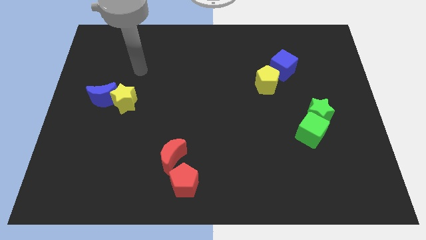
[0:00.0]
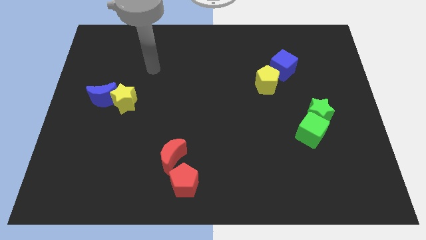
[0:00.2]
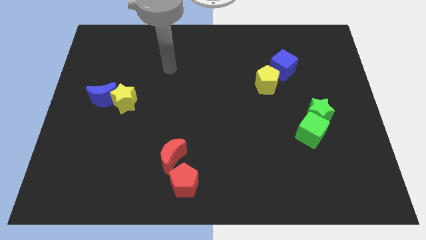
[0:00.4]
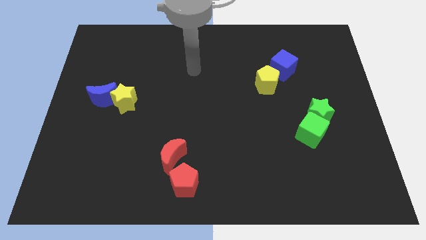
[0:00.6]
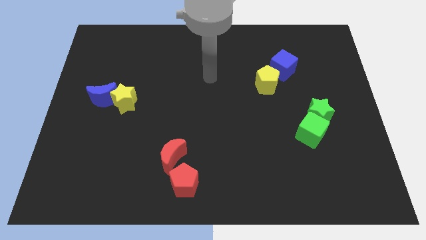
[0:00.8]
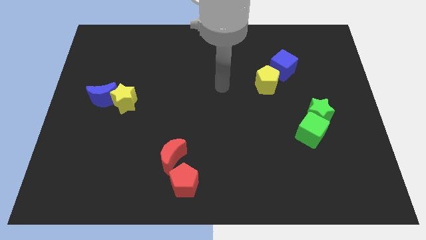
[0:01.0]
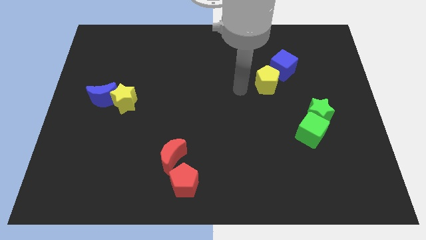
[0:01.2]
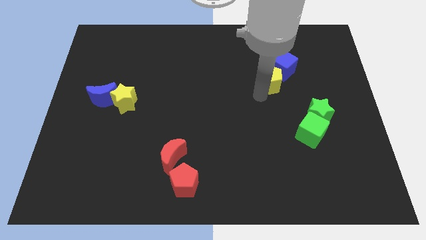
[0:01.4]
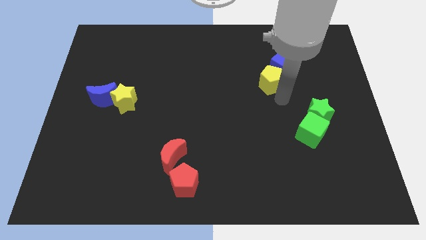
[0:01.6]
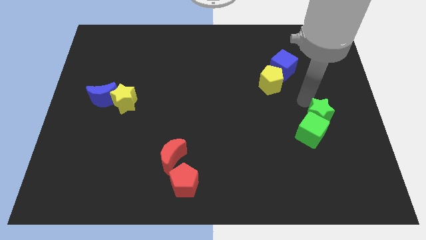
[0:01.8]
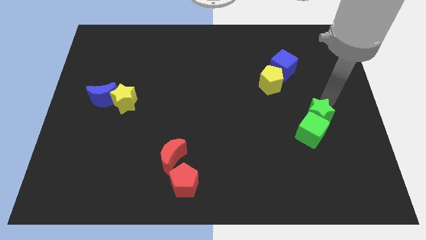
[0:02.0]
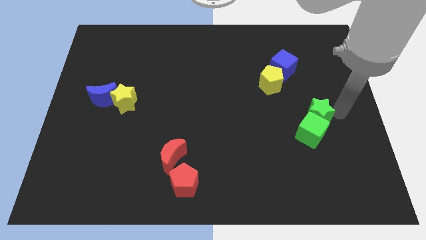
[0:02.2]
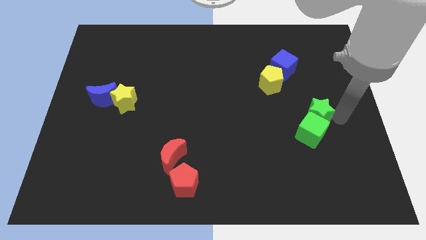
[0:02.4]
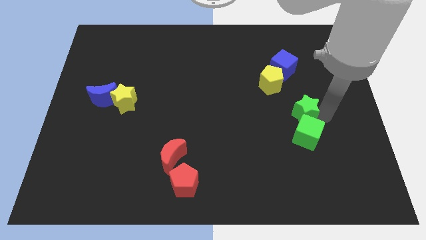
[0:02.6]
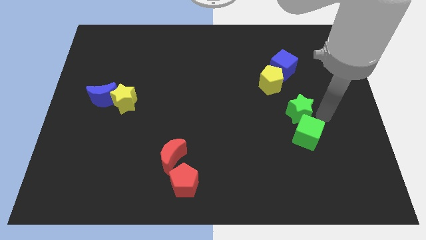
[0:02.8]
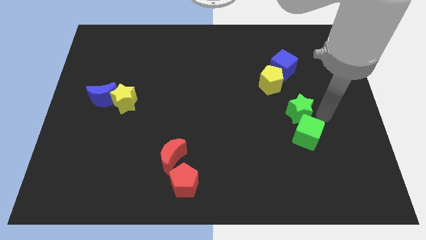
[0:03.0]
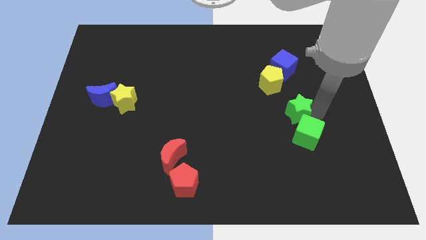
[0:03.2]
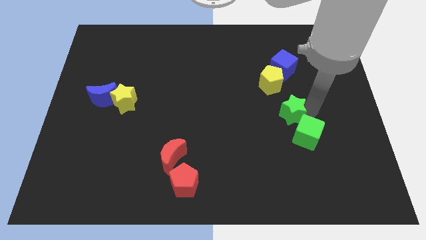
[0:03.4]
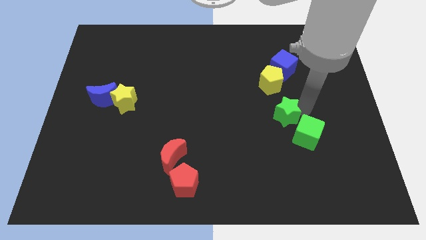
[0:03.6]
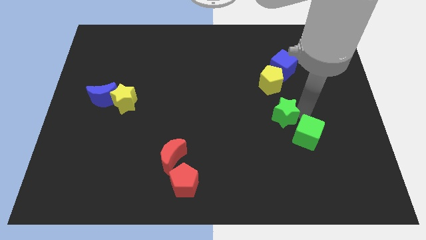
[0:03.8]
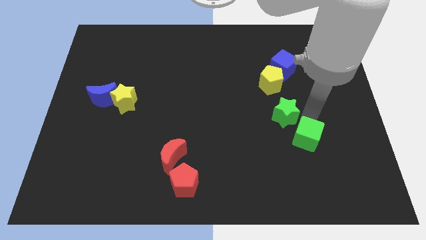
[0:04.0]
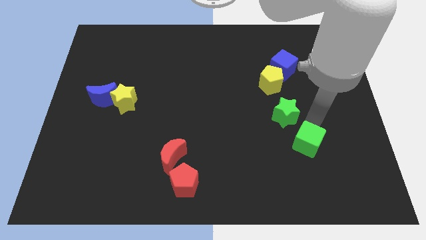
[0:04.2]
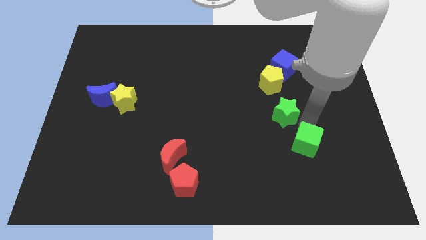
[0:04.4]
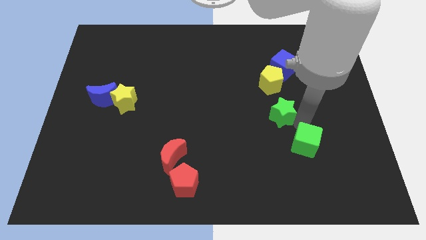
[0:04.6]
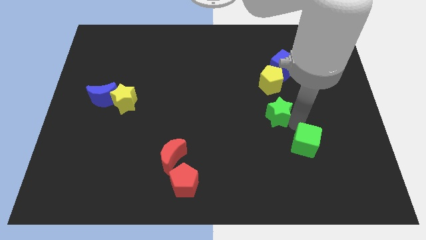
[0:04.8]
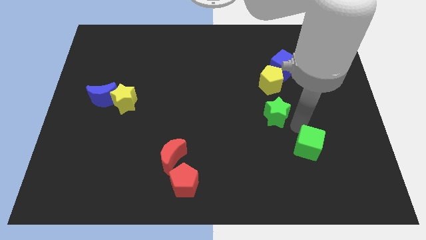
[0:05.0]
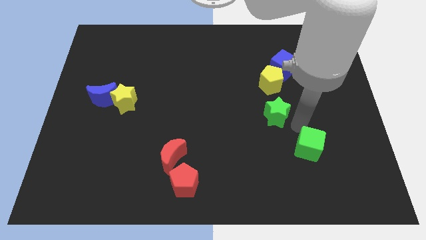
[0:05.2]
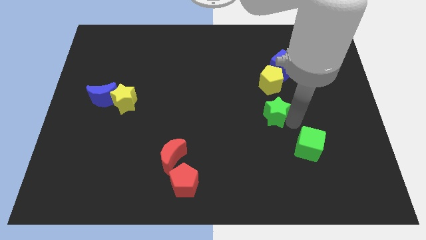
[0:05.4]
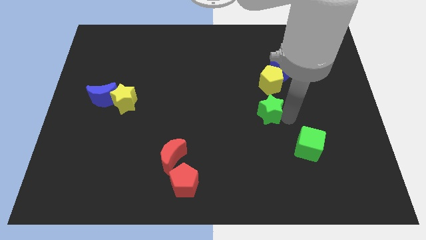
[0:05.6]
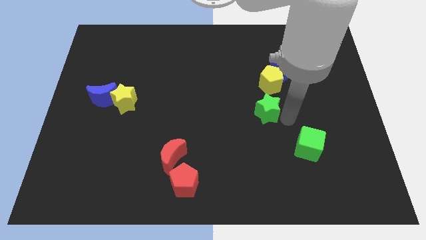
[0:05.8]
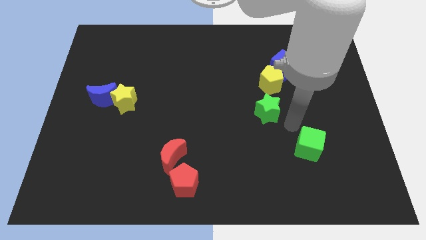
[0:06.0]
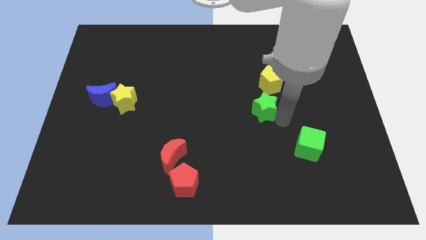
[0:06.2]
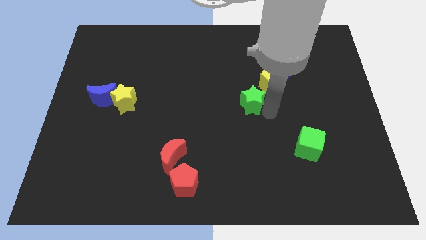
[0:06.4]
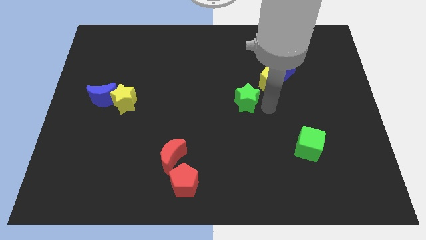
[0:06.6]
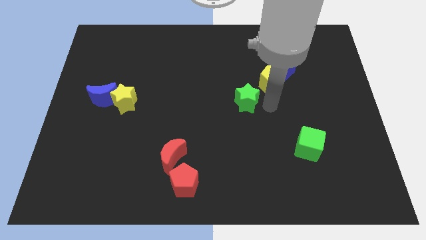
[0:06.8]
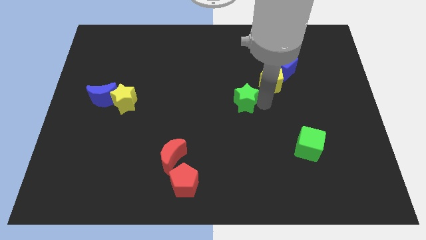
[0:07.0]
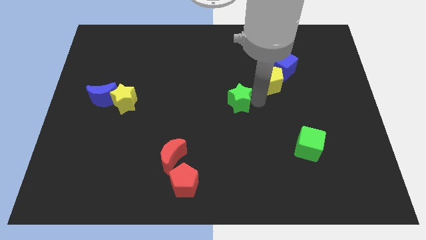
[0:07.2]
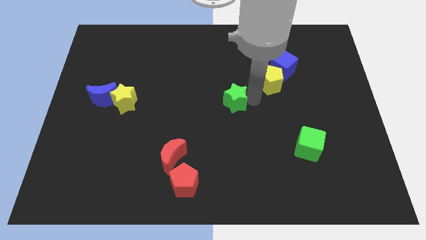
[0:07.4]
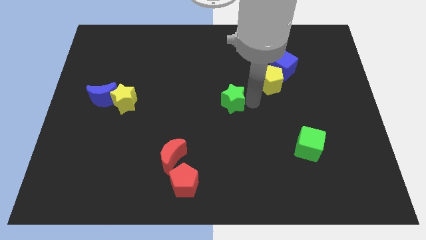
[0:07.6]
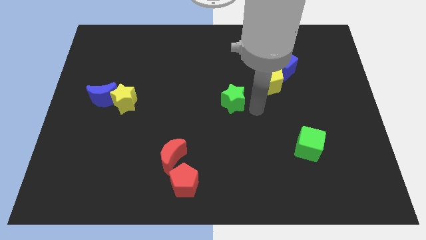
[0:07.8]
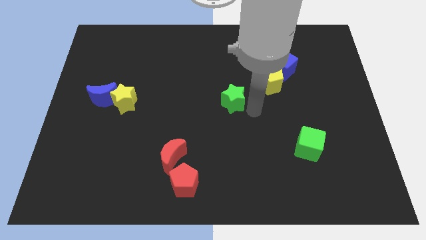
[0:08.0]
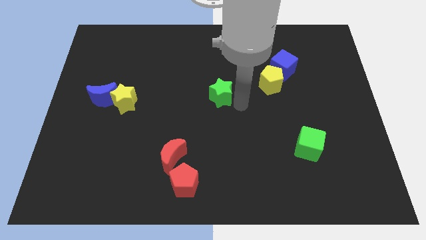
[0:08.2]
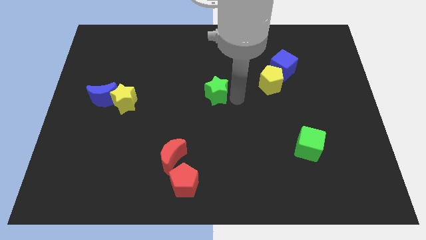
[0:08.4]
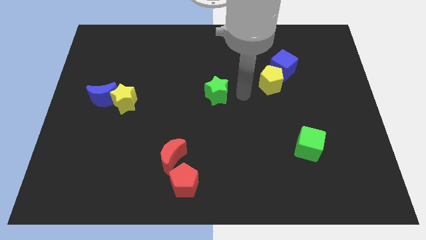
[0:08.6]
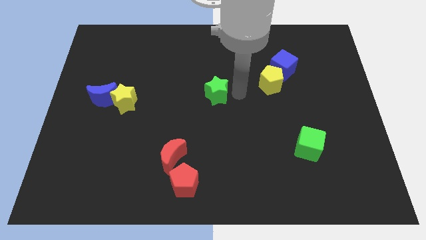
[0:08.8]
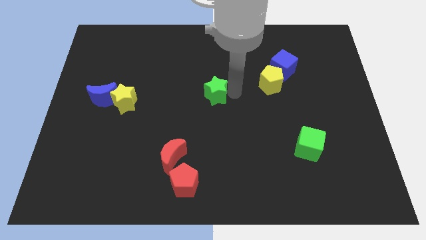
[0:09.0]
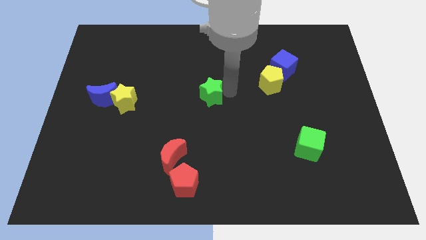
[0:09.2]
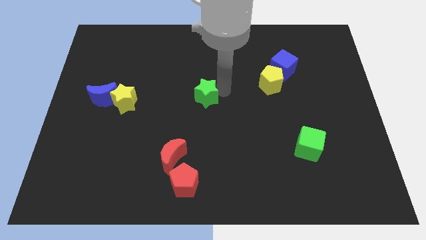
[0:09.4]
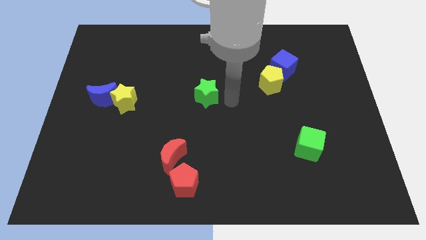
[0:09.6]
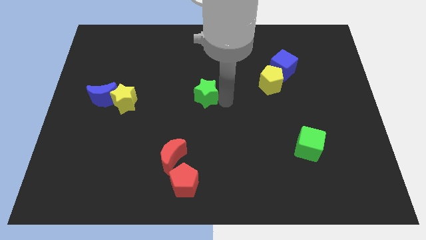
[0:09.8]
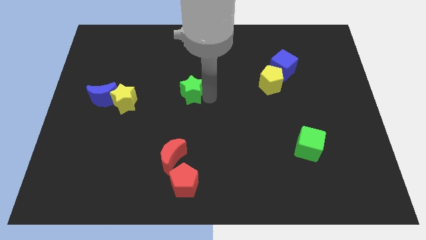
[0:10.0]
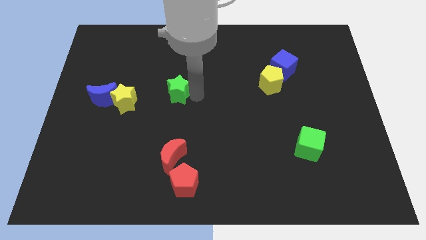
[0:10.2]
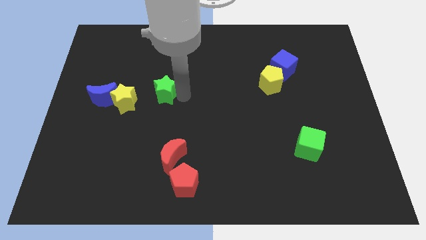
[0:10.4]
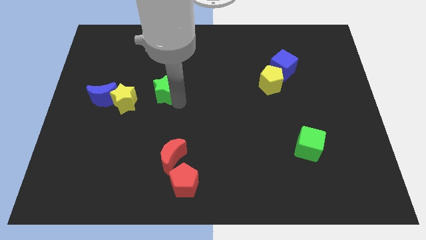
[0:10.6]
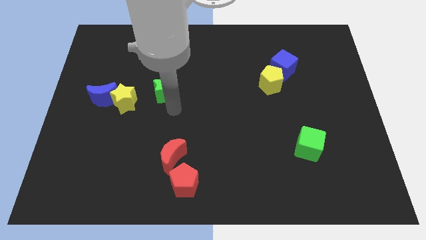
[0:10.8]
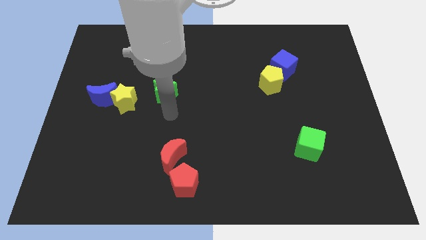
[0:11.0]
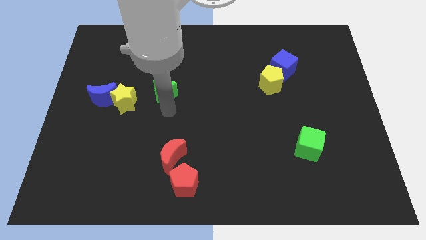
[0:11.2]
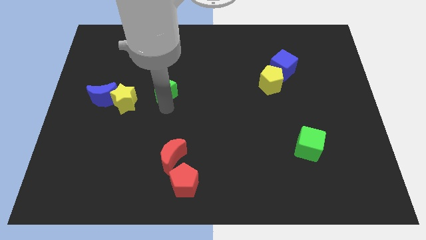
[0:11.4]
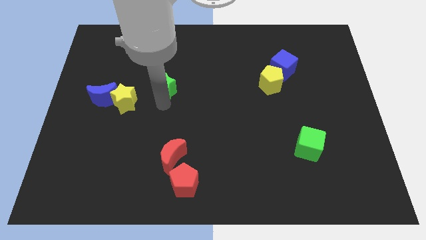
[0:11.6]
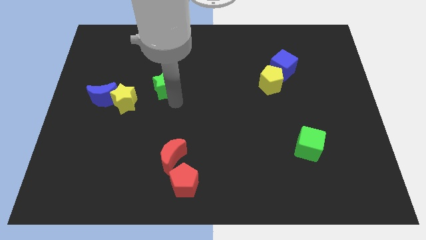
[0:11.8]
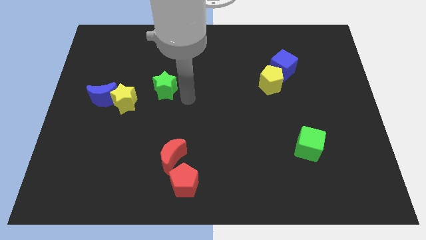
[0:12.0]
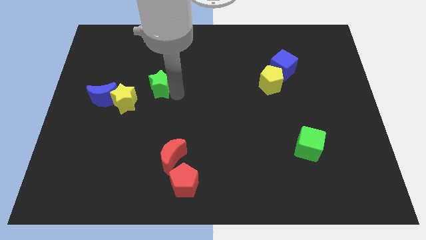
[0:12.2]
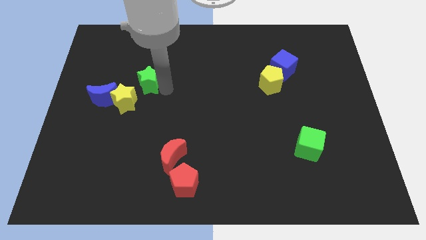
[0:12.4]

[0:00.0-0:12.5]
move the green star to the top right of the blue moon

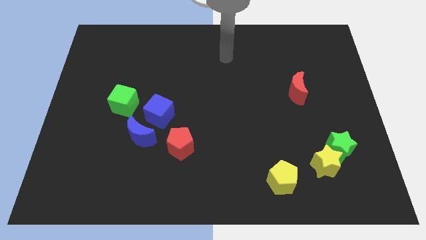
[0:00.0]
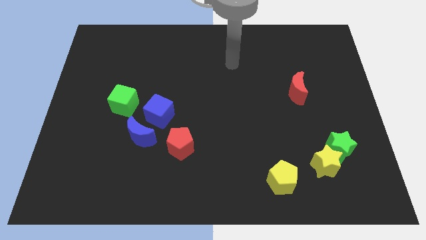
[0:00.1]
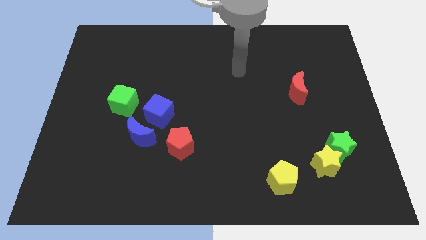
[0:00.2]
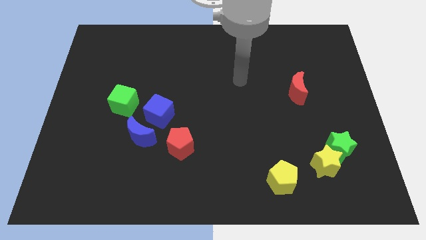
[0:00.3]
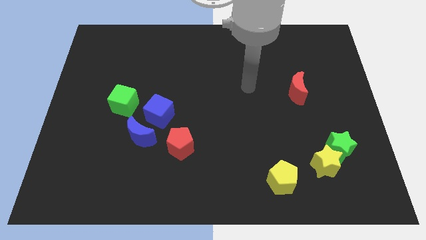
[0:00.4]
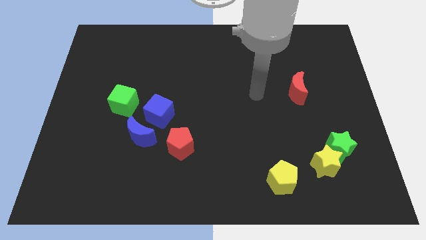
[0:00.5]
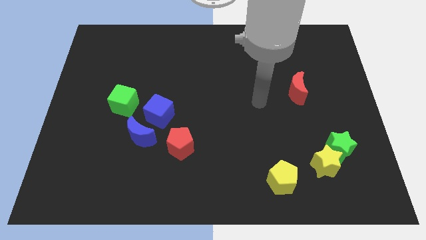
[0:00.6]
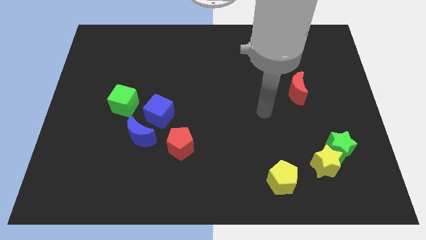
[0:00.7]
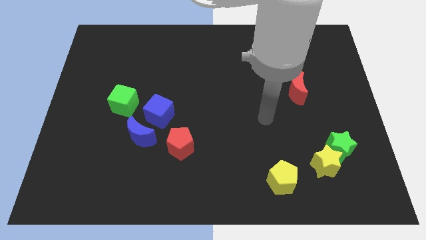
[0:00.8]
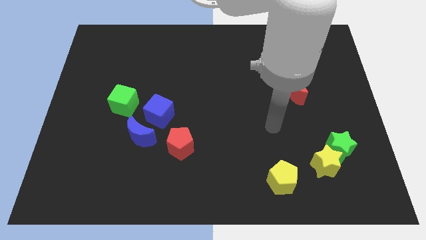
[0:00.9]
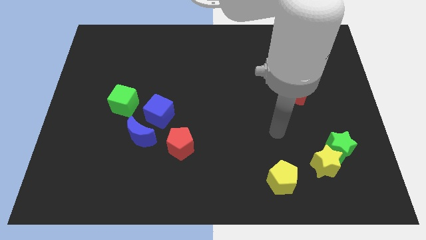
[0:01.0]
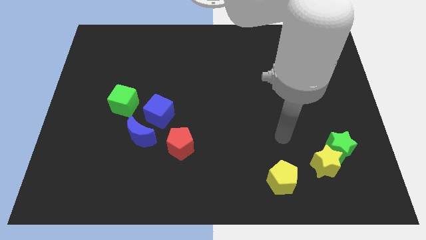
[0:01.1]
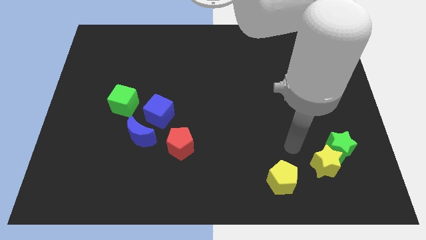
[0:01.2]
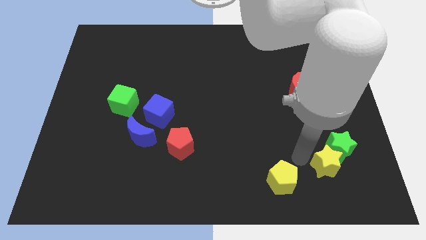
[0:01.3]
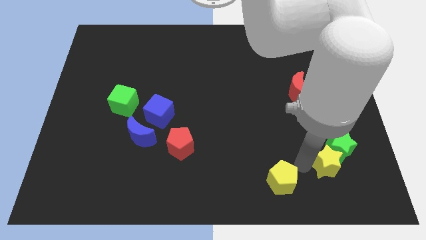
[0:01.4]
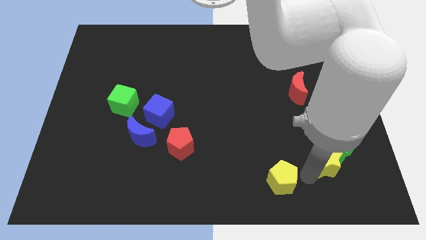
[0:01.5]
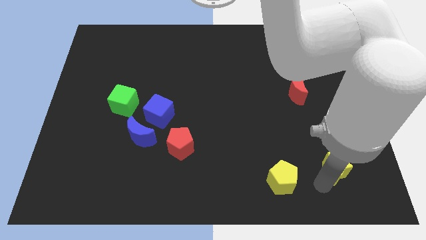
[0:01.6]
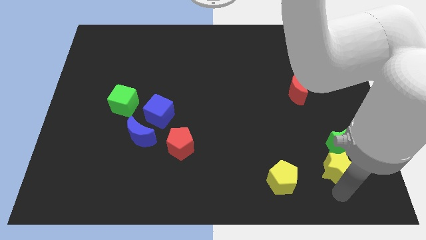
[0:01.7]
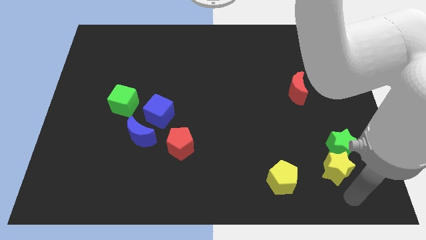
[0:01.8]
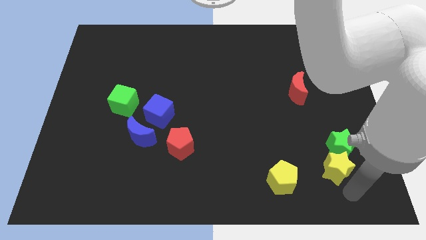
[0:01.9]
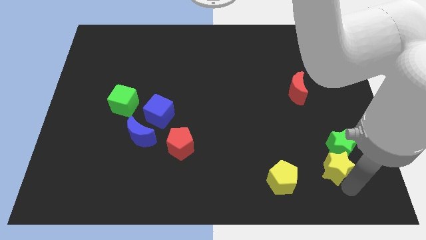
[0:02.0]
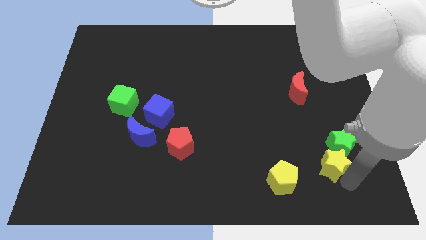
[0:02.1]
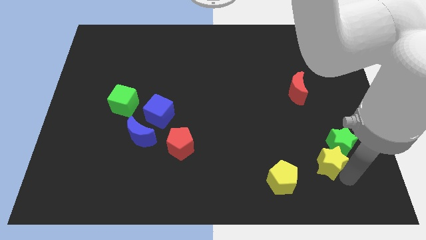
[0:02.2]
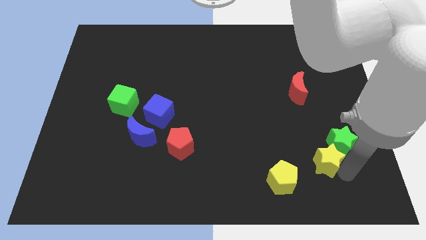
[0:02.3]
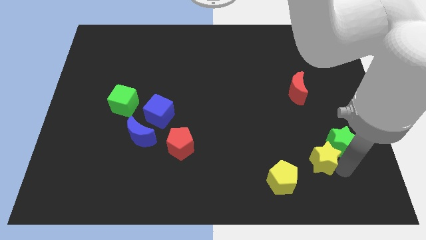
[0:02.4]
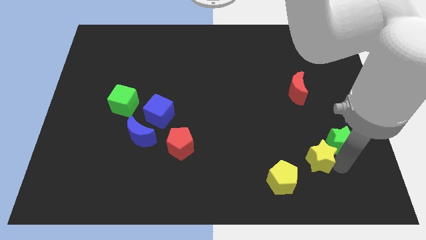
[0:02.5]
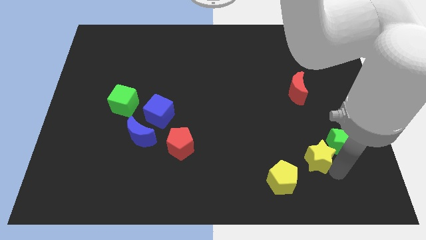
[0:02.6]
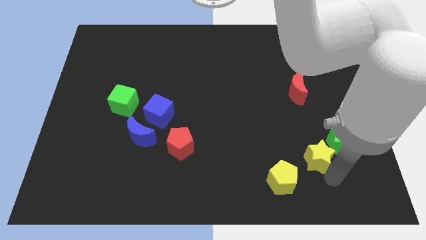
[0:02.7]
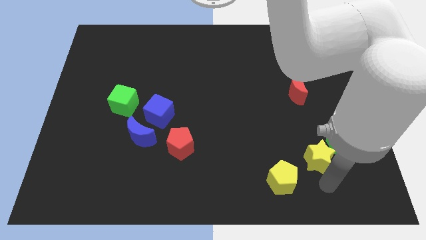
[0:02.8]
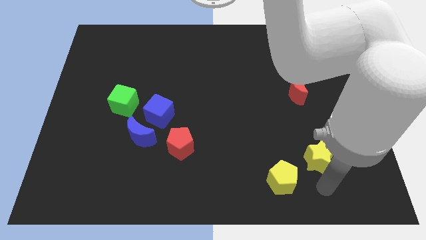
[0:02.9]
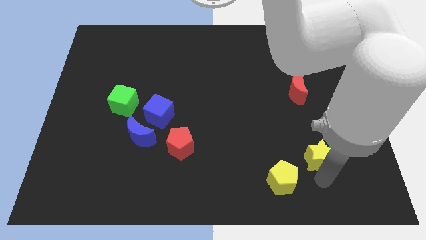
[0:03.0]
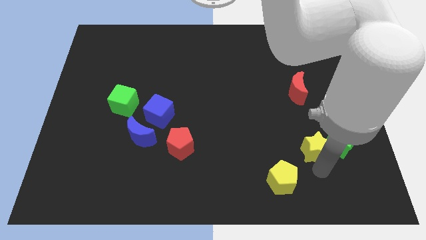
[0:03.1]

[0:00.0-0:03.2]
put the yellow star diagonally up and to the left of the green star
